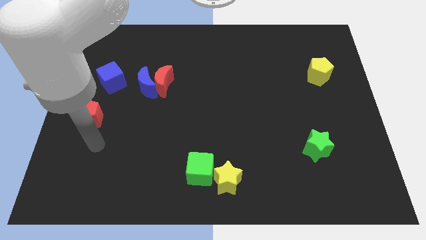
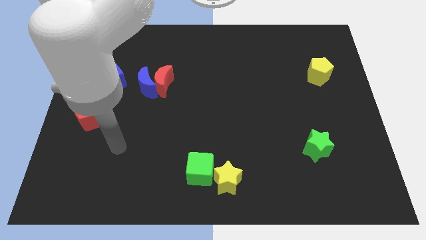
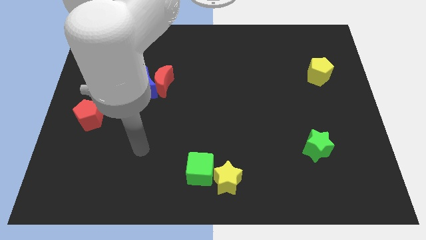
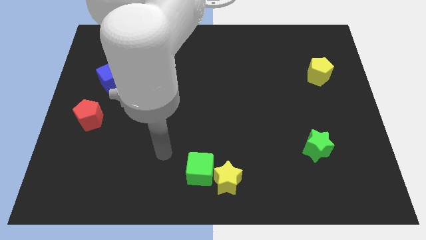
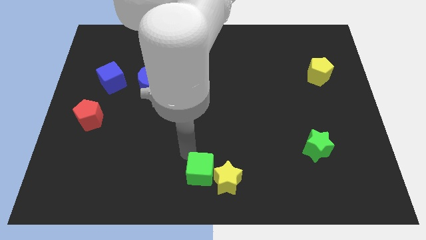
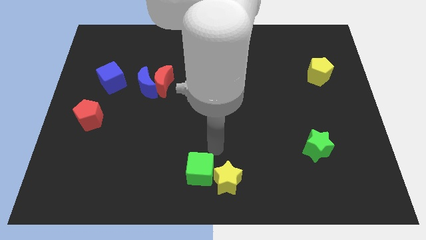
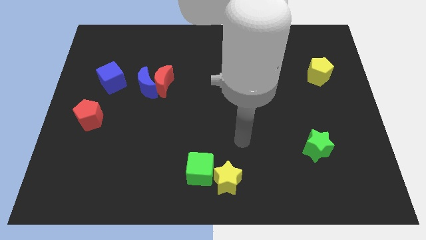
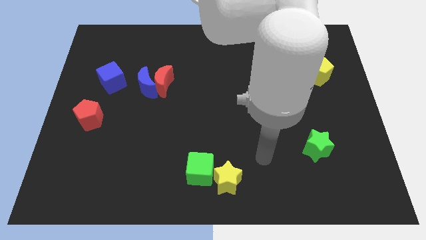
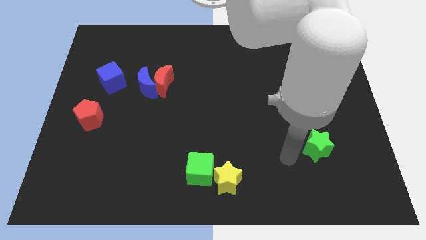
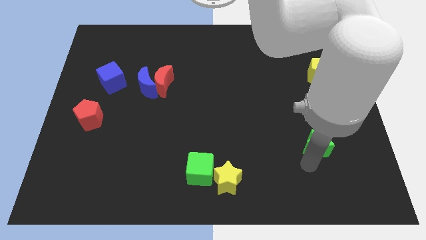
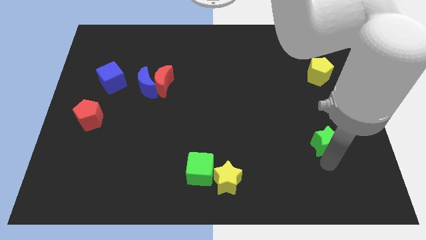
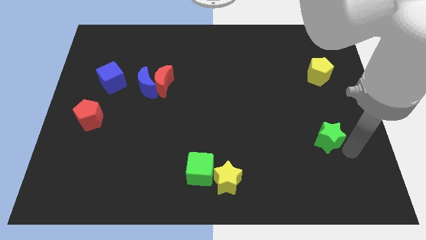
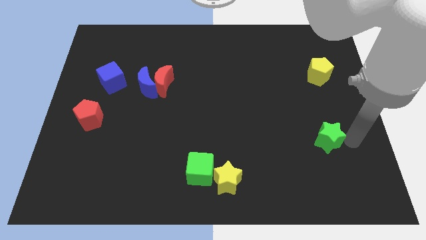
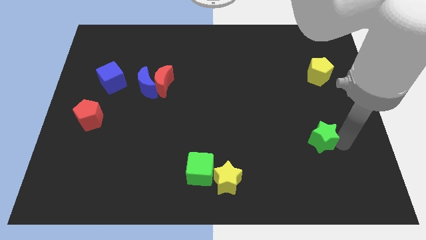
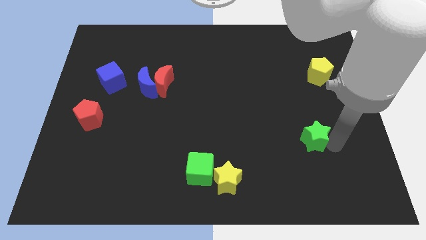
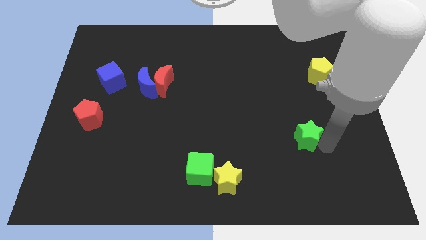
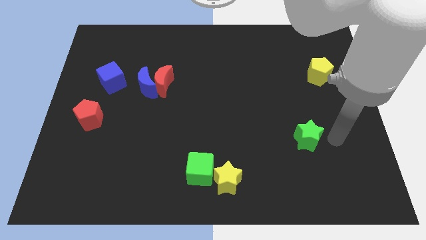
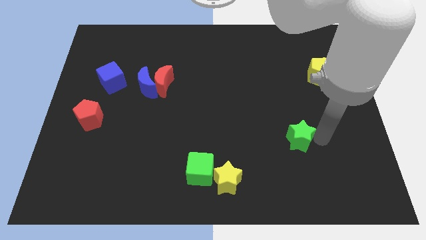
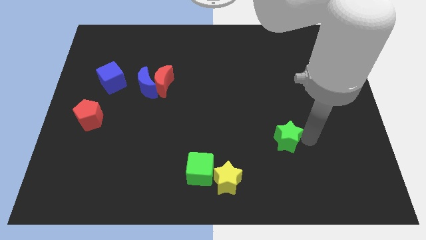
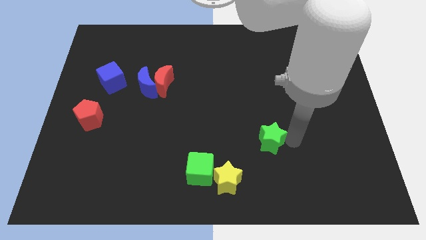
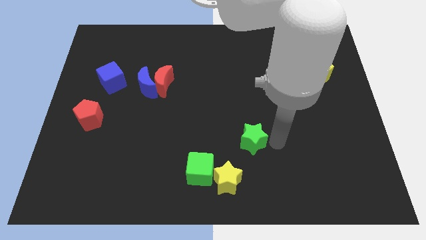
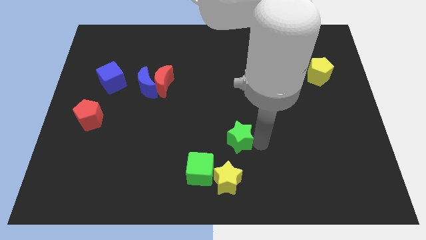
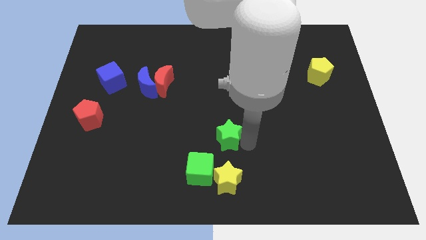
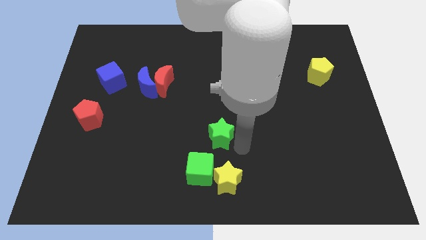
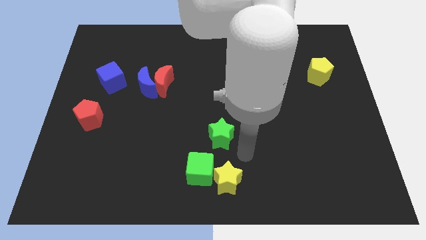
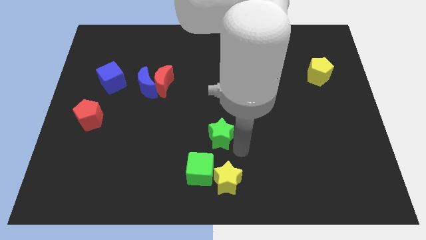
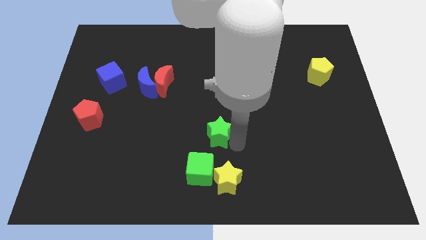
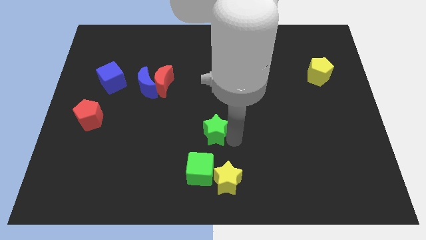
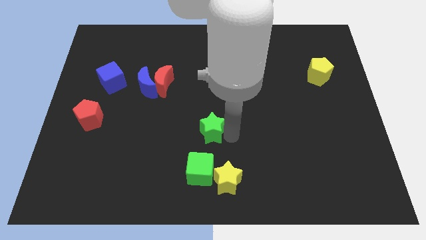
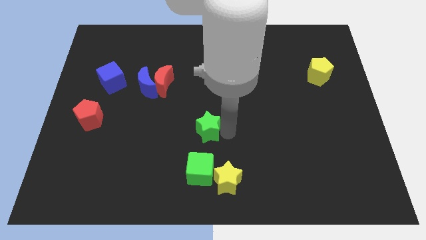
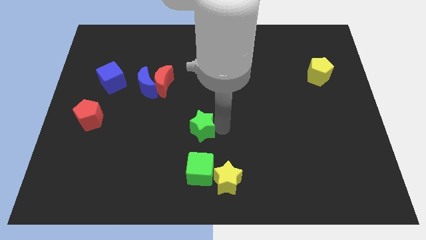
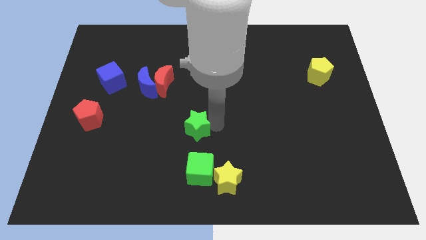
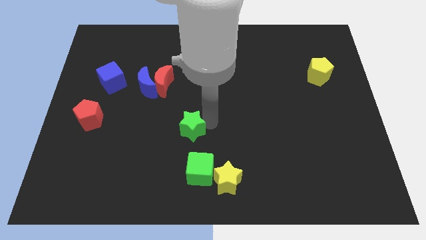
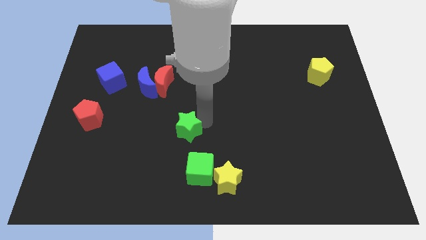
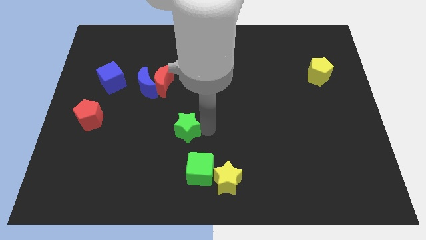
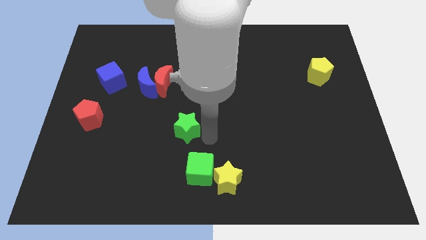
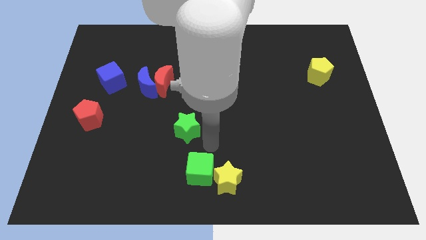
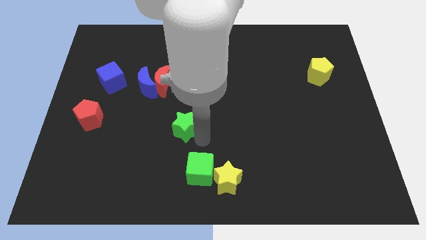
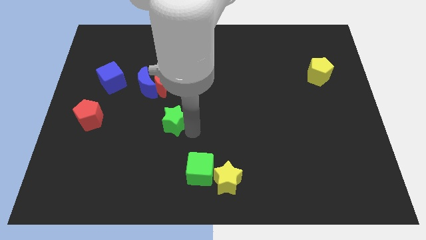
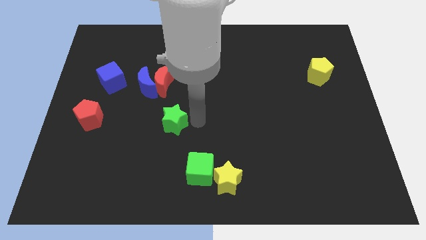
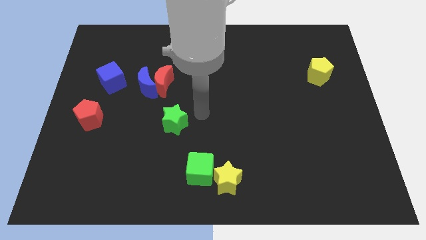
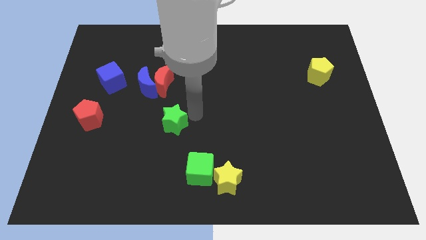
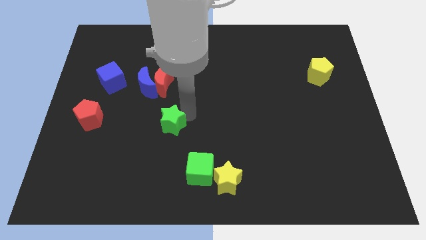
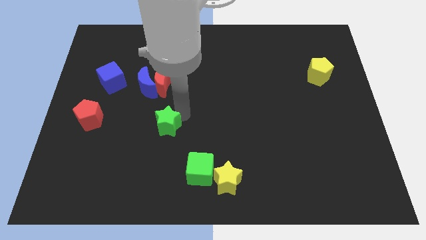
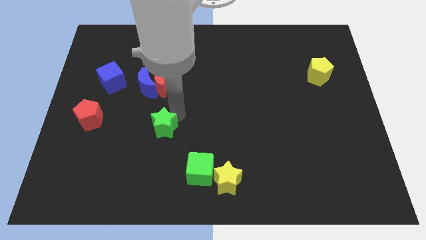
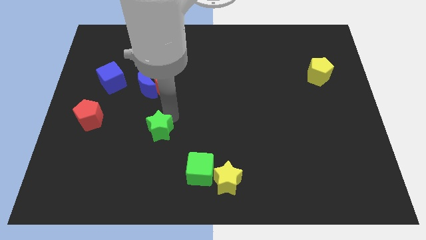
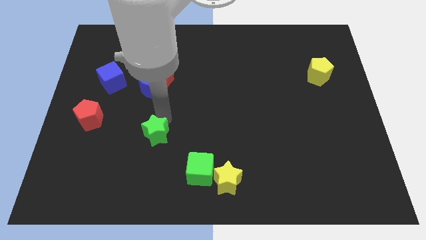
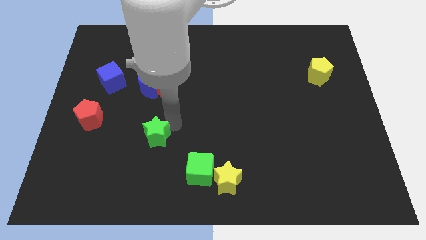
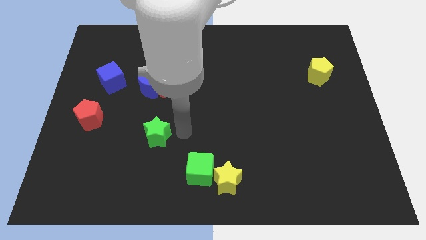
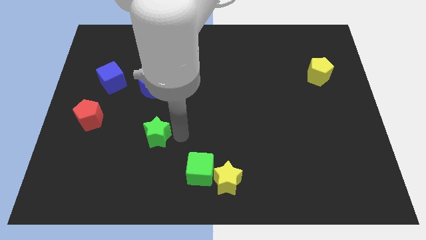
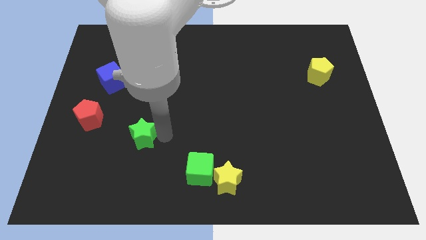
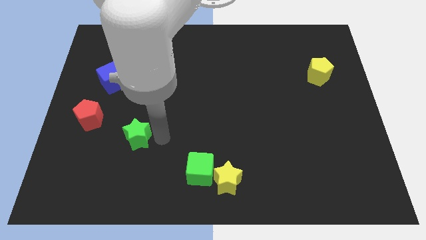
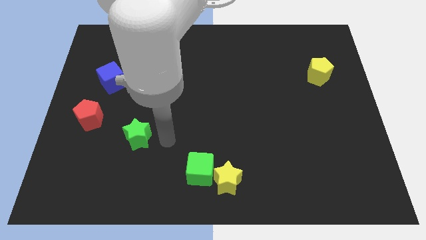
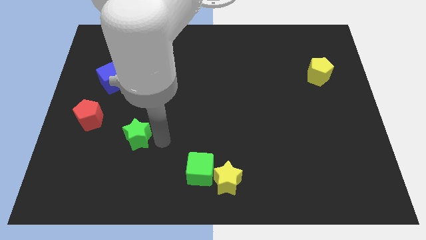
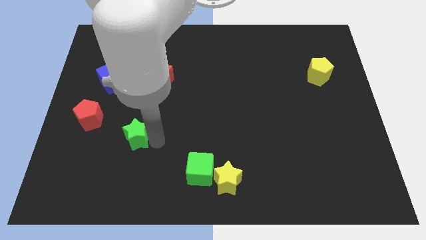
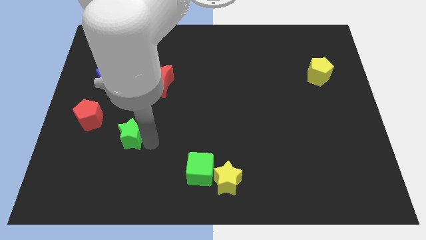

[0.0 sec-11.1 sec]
move the green star to the bottom right side of the red pentagon

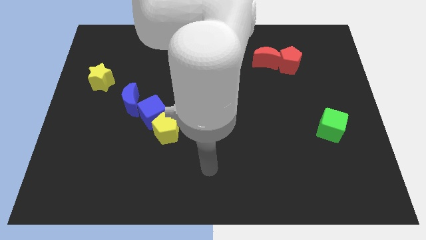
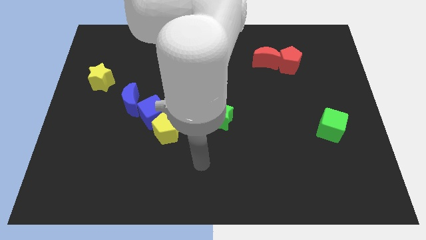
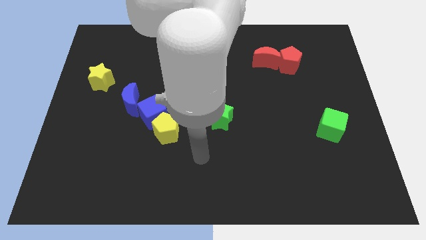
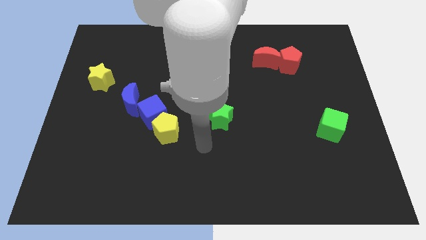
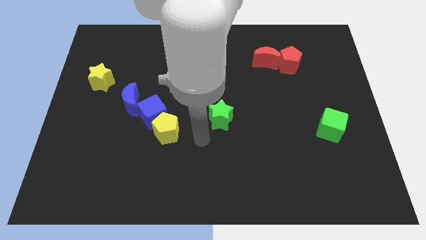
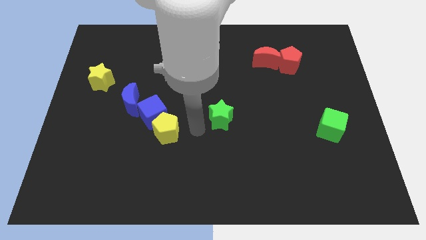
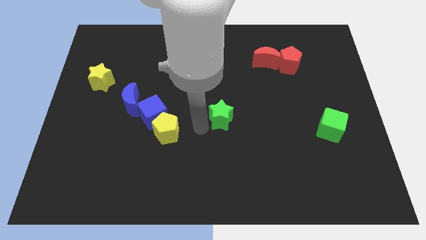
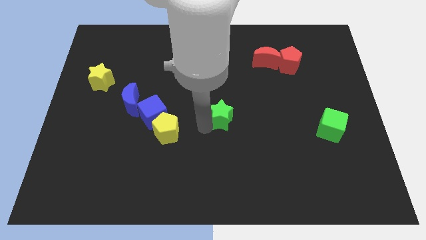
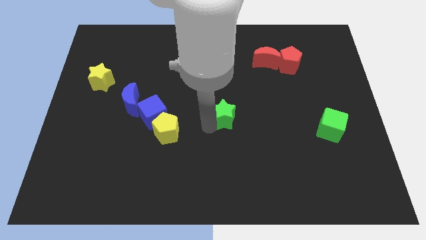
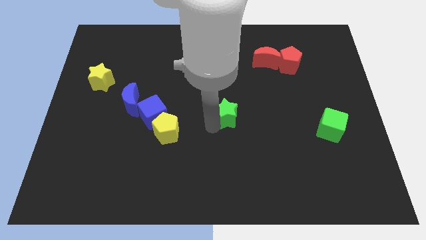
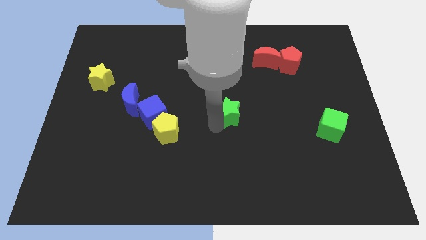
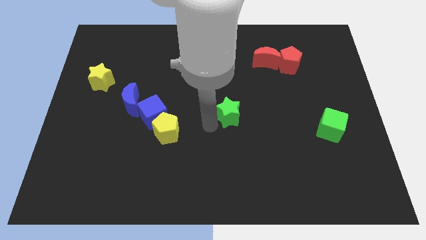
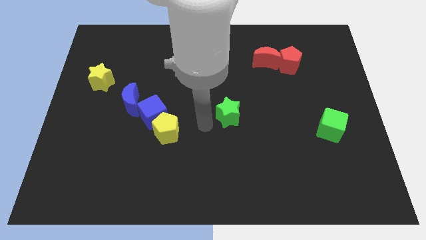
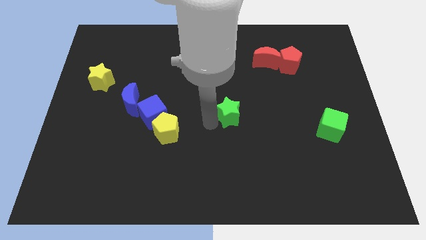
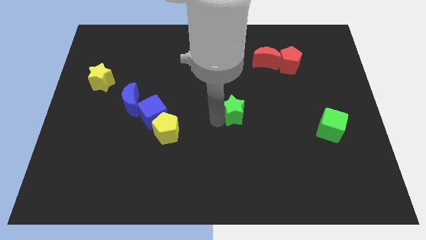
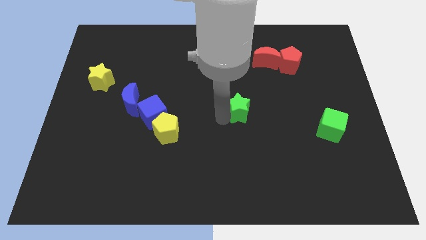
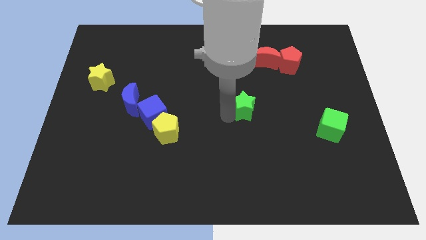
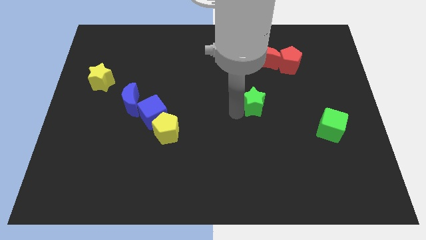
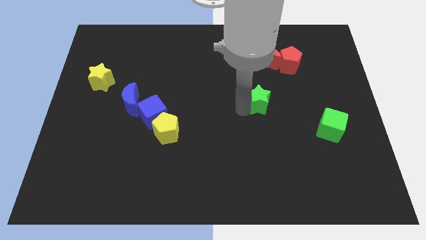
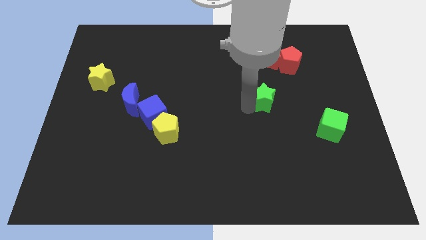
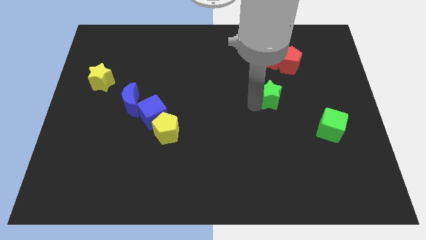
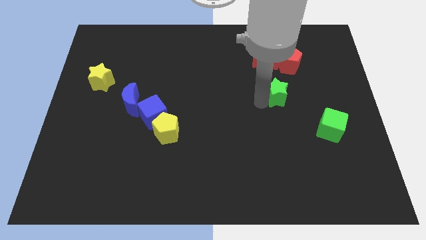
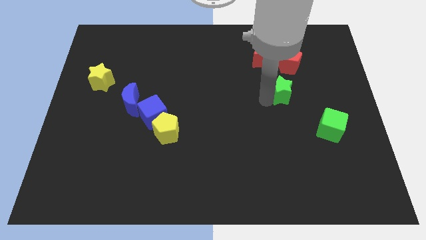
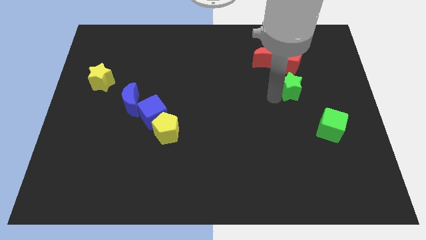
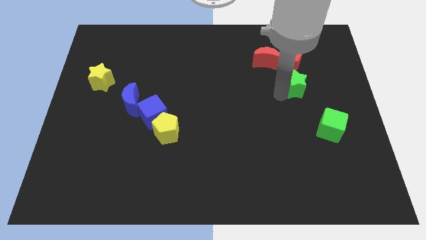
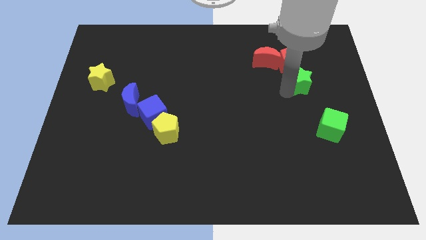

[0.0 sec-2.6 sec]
put the green star to the bottom right side of the red pentagon
